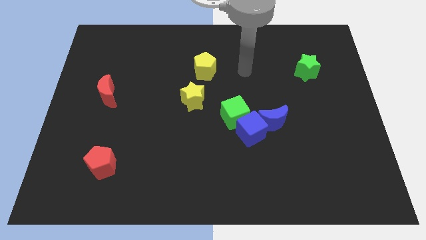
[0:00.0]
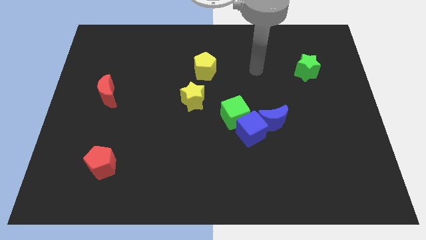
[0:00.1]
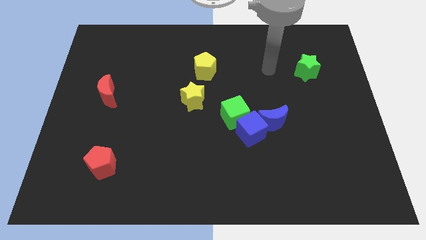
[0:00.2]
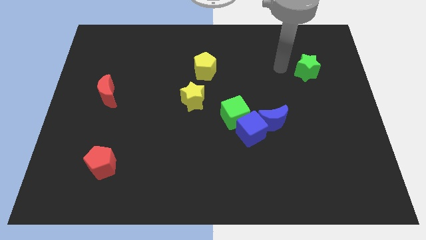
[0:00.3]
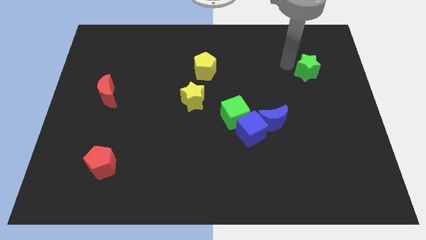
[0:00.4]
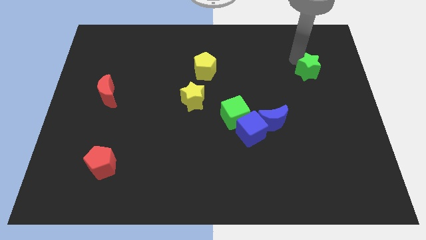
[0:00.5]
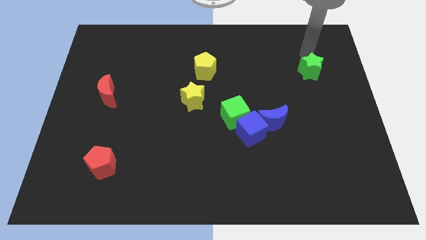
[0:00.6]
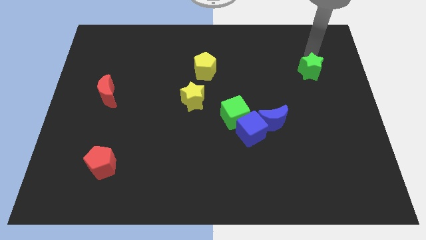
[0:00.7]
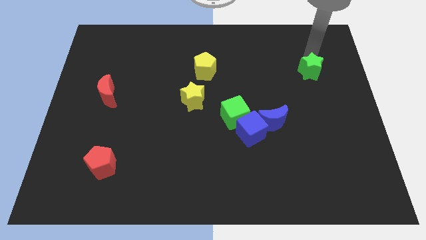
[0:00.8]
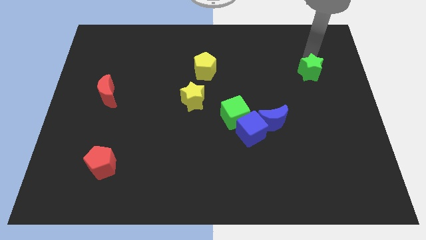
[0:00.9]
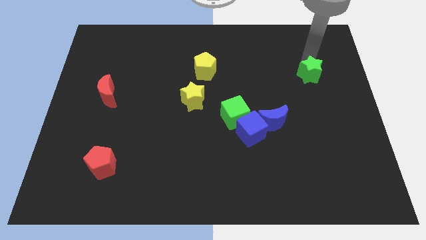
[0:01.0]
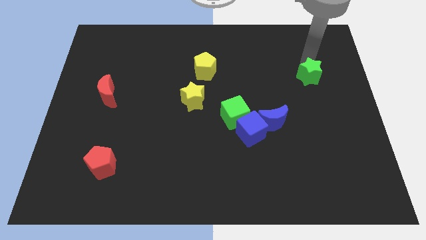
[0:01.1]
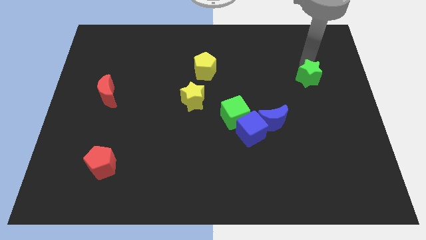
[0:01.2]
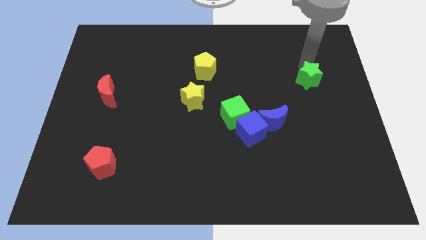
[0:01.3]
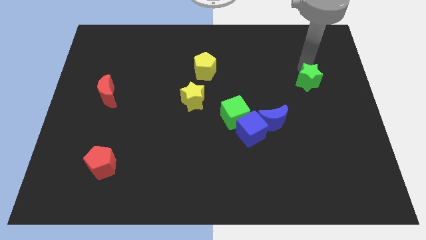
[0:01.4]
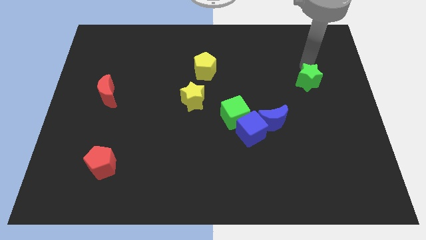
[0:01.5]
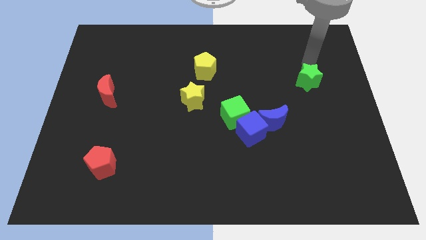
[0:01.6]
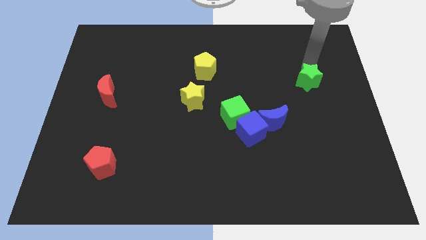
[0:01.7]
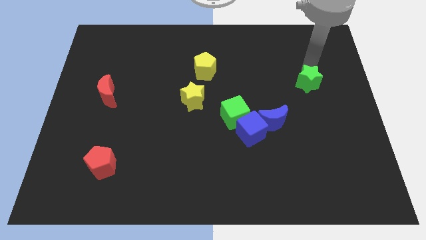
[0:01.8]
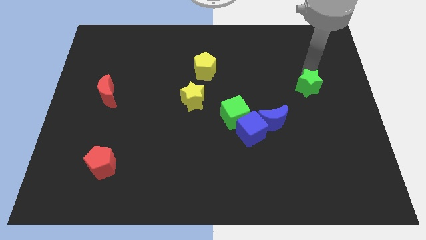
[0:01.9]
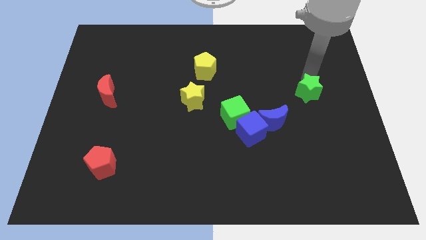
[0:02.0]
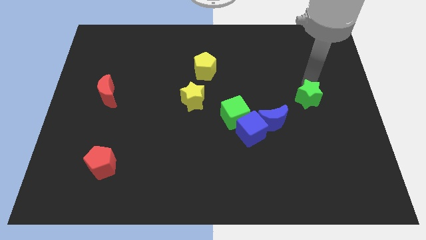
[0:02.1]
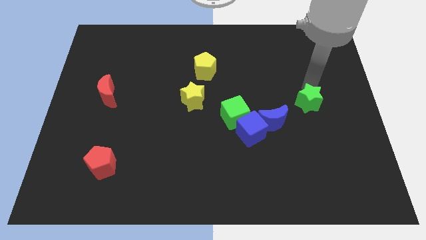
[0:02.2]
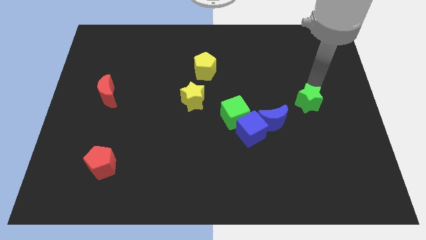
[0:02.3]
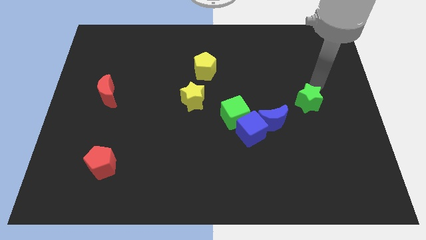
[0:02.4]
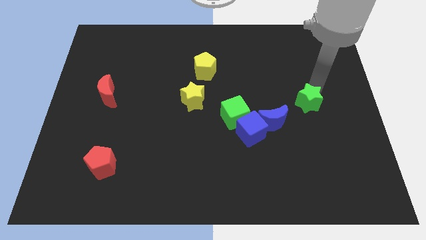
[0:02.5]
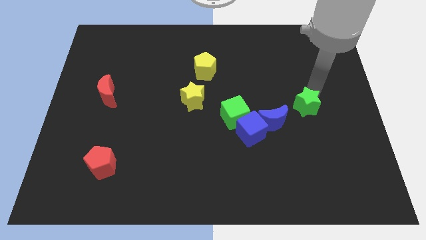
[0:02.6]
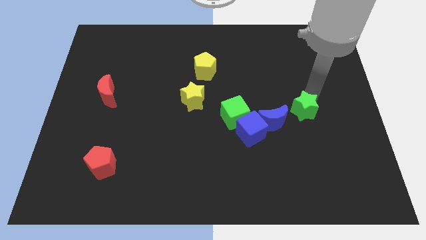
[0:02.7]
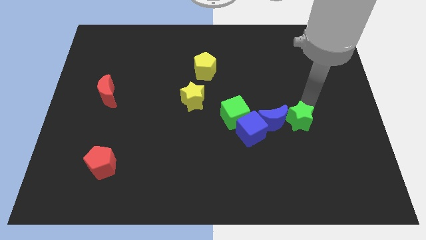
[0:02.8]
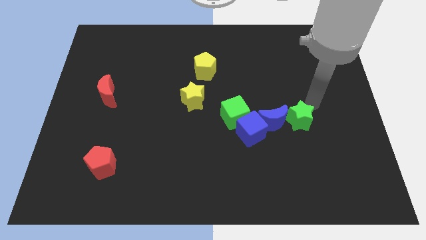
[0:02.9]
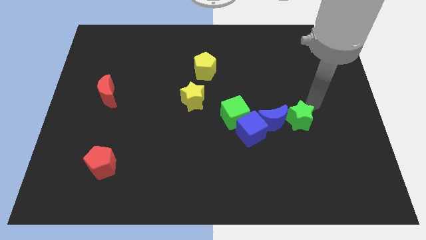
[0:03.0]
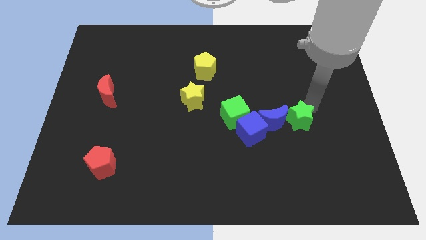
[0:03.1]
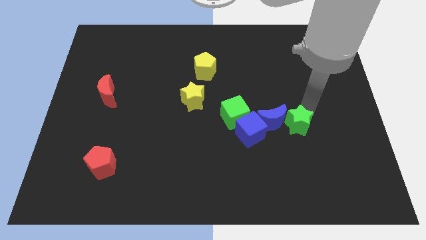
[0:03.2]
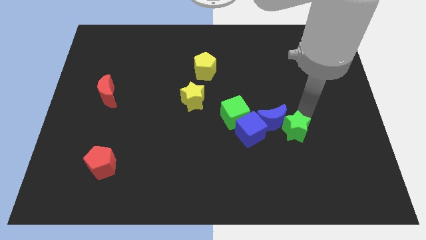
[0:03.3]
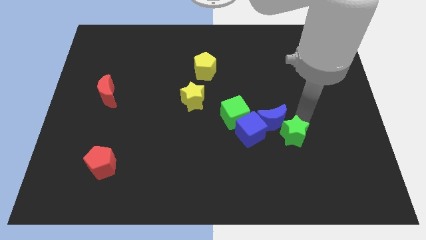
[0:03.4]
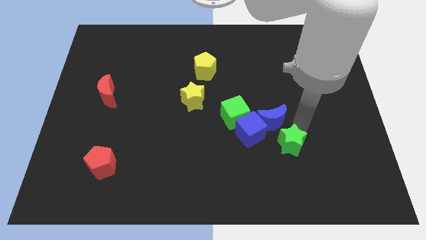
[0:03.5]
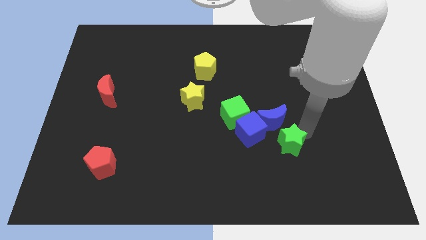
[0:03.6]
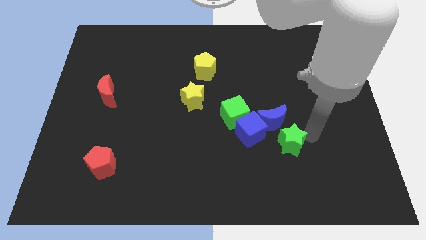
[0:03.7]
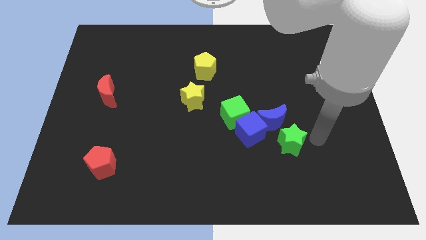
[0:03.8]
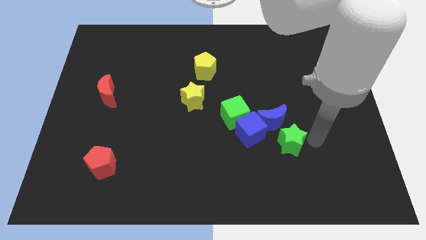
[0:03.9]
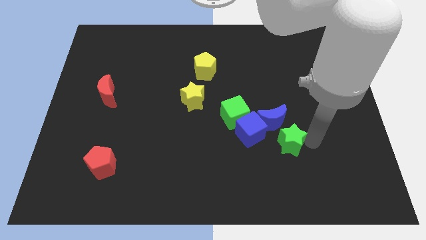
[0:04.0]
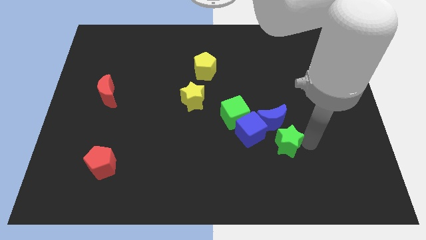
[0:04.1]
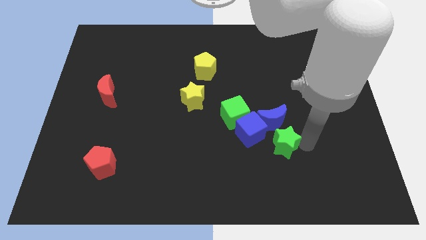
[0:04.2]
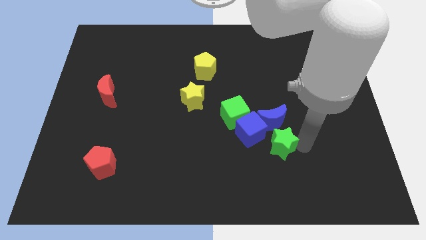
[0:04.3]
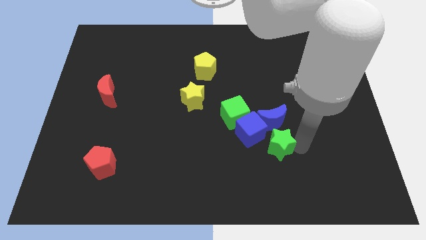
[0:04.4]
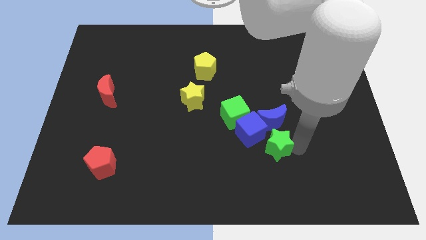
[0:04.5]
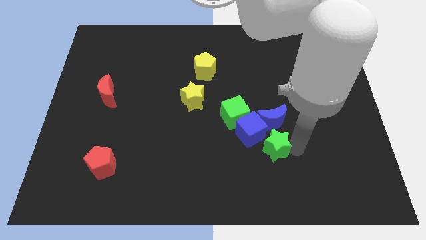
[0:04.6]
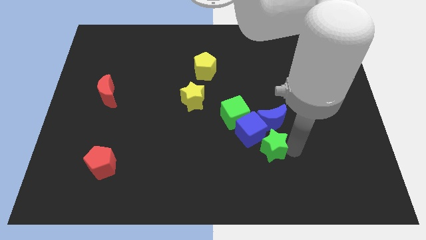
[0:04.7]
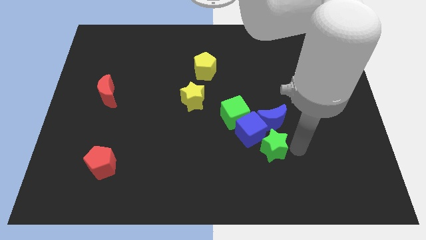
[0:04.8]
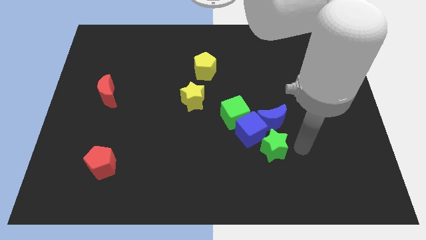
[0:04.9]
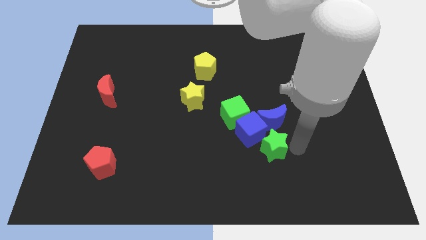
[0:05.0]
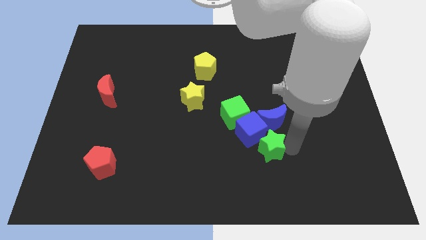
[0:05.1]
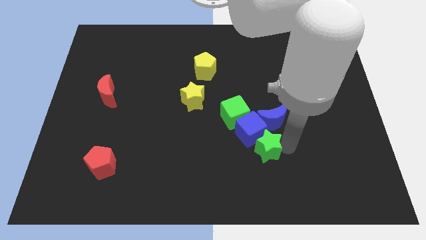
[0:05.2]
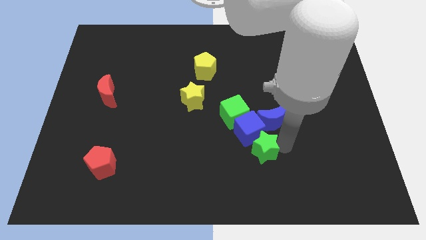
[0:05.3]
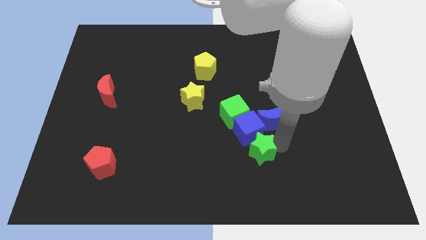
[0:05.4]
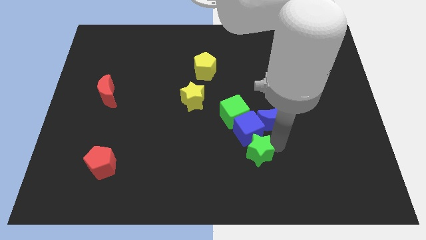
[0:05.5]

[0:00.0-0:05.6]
move the green star below the green cube

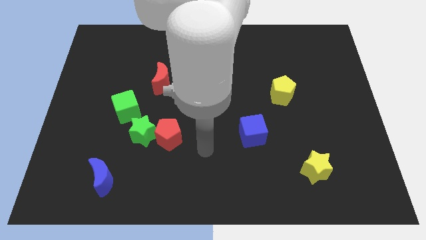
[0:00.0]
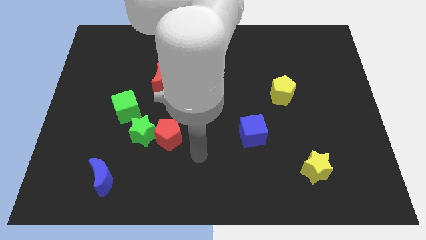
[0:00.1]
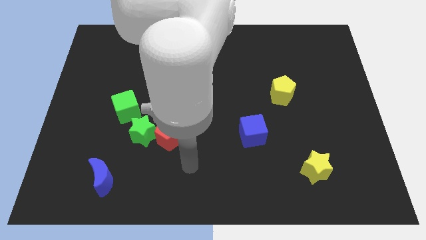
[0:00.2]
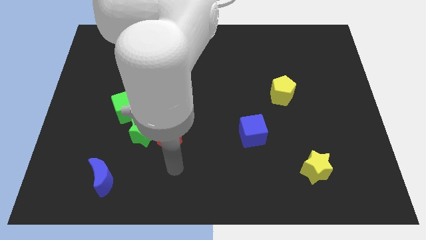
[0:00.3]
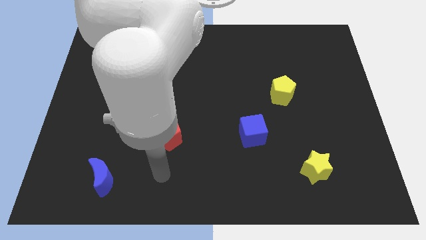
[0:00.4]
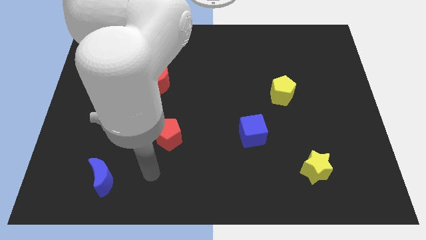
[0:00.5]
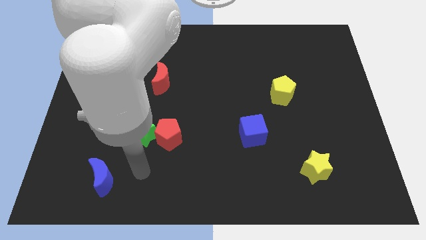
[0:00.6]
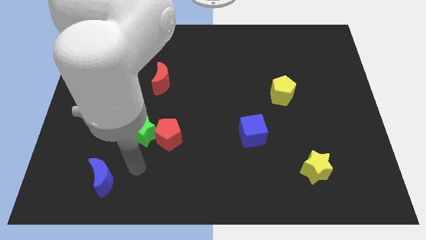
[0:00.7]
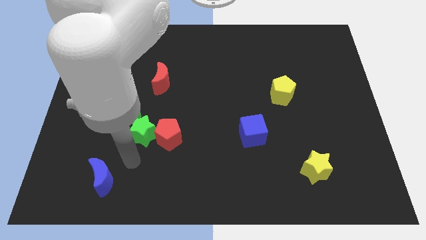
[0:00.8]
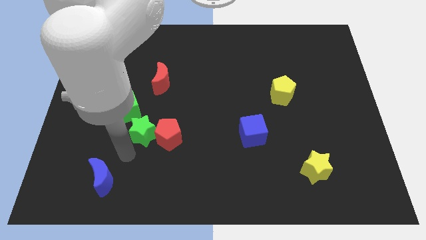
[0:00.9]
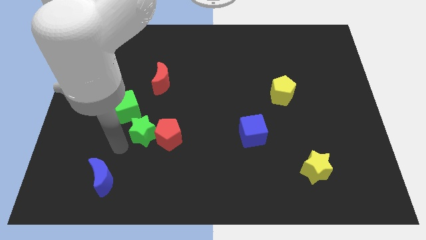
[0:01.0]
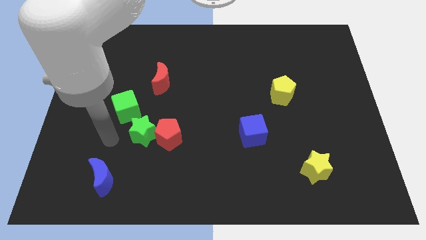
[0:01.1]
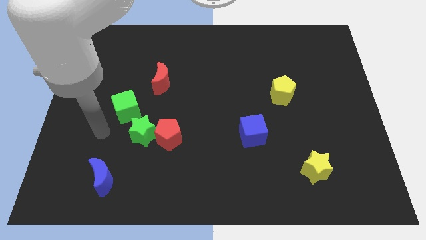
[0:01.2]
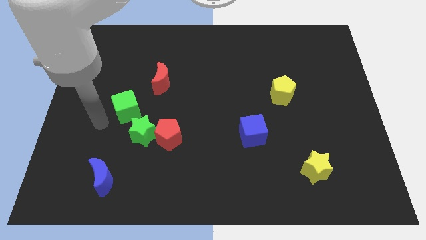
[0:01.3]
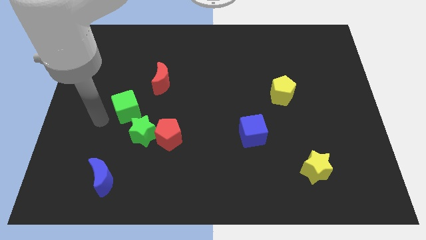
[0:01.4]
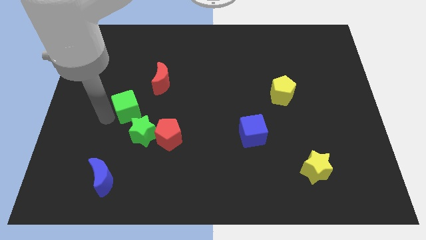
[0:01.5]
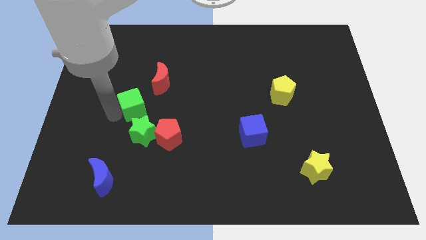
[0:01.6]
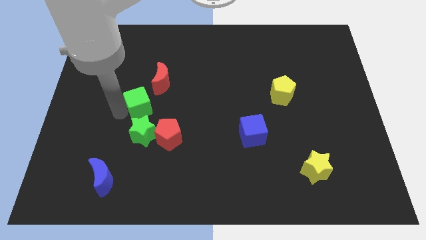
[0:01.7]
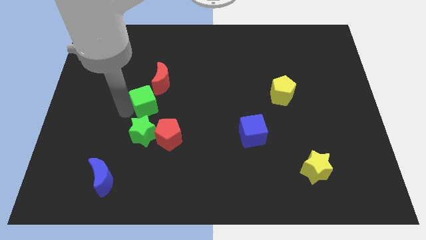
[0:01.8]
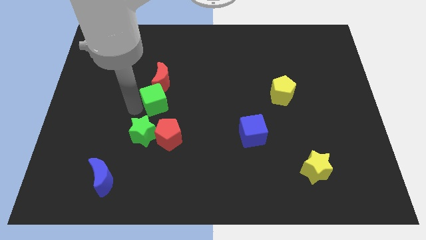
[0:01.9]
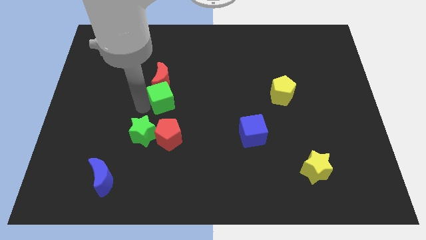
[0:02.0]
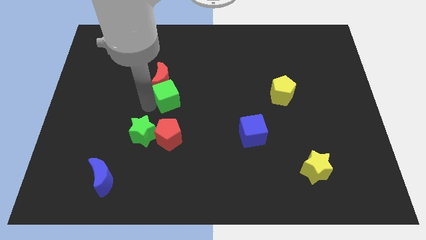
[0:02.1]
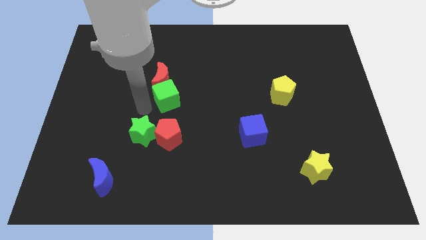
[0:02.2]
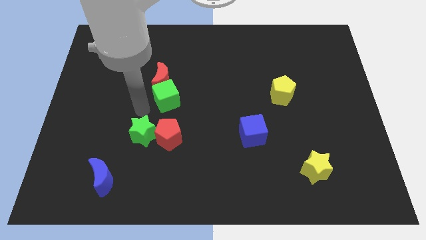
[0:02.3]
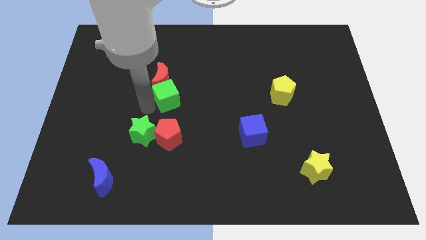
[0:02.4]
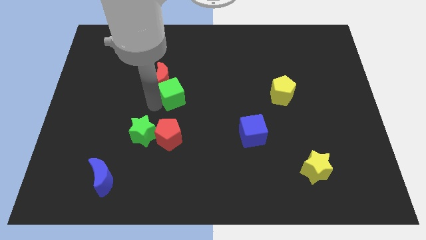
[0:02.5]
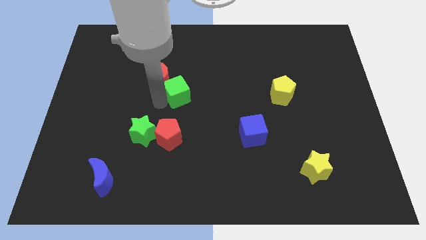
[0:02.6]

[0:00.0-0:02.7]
move the green cube just right of the red moon

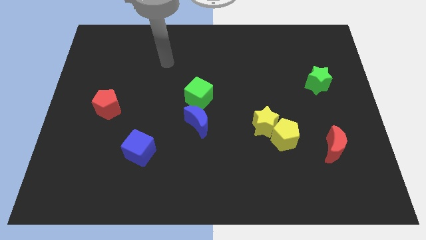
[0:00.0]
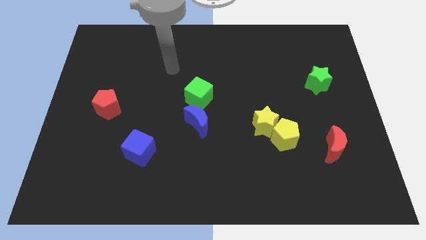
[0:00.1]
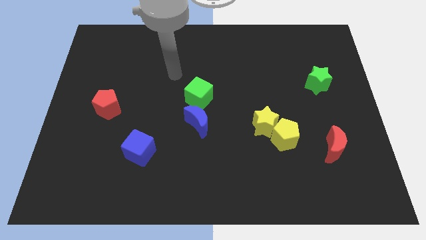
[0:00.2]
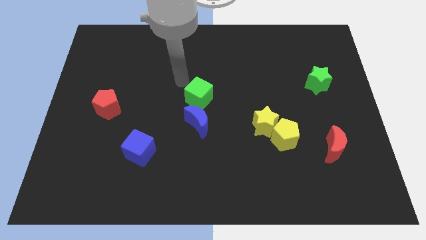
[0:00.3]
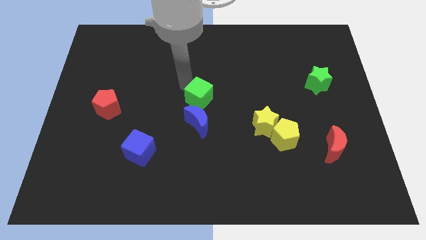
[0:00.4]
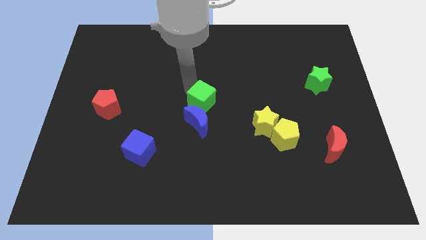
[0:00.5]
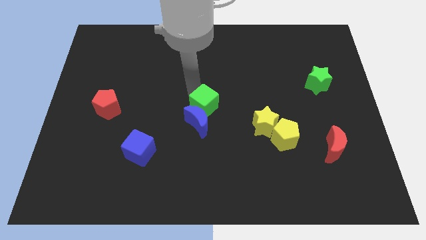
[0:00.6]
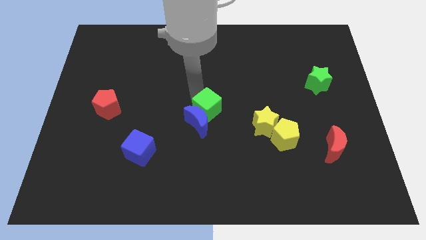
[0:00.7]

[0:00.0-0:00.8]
move the green cube to the left of the yellow star
